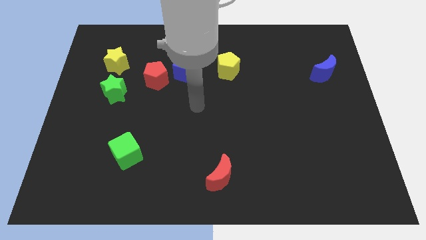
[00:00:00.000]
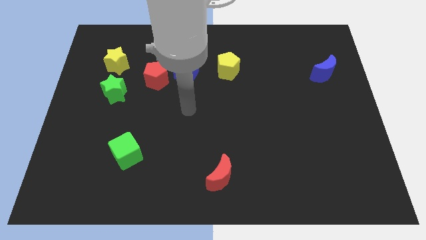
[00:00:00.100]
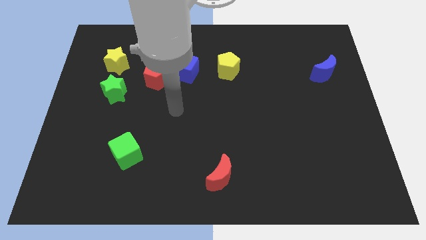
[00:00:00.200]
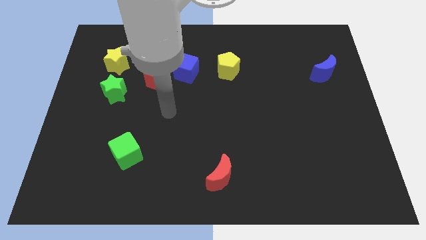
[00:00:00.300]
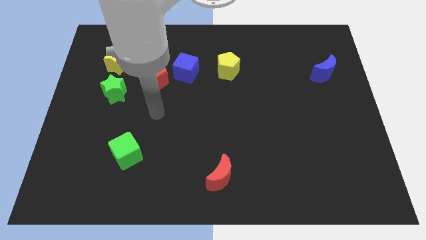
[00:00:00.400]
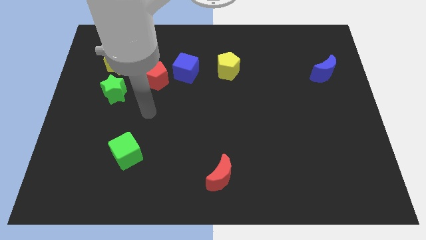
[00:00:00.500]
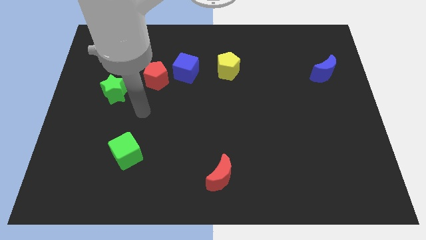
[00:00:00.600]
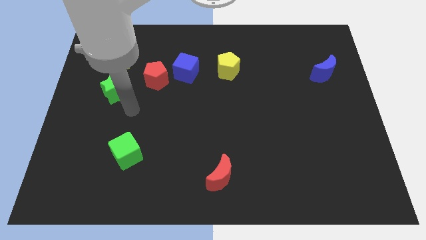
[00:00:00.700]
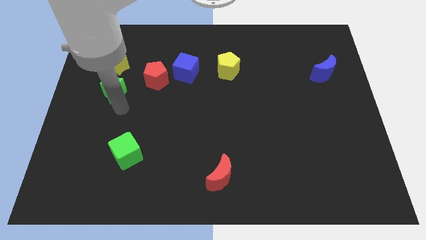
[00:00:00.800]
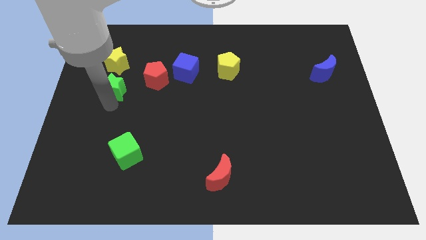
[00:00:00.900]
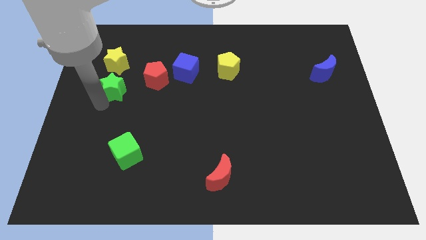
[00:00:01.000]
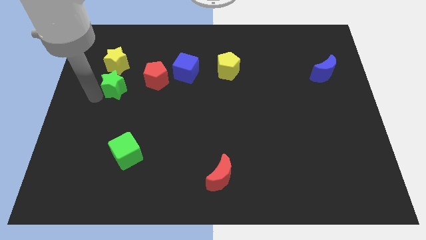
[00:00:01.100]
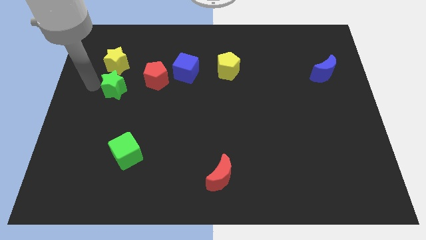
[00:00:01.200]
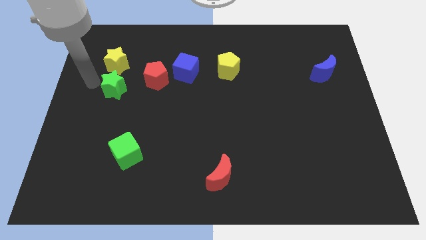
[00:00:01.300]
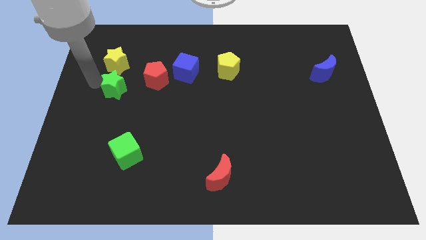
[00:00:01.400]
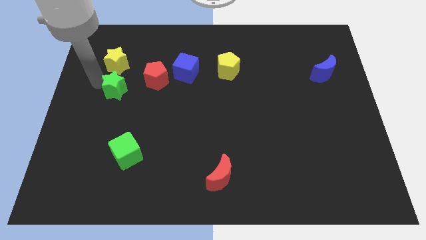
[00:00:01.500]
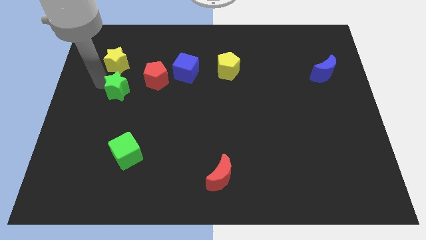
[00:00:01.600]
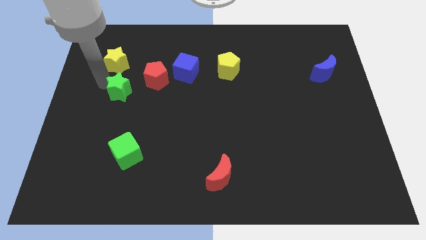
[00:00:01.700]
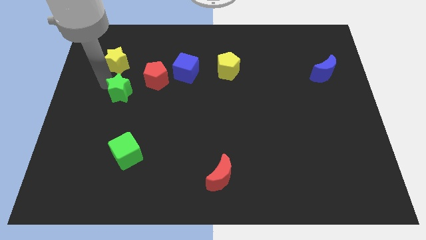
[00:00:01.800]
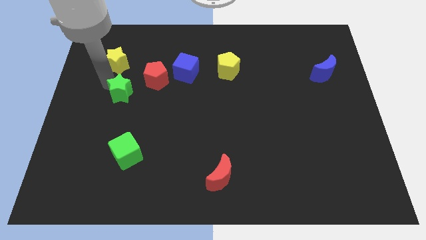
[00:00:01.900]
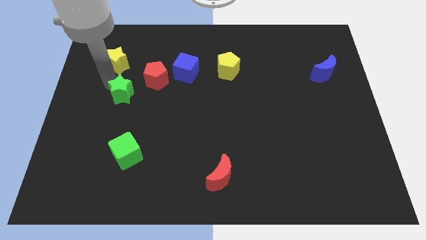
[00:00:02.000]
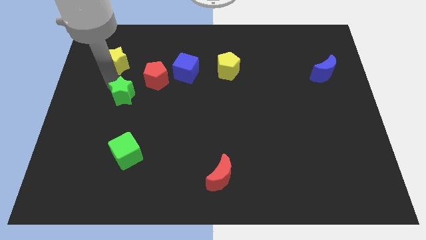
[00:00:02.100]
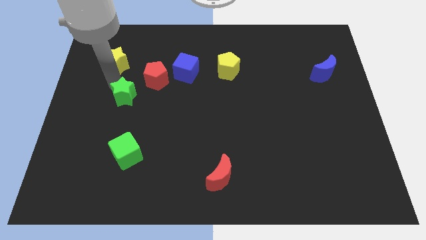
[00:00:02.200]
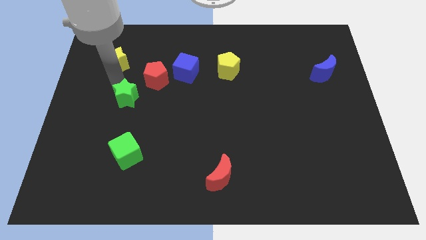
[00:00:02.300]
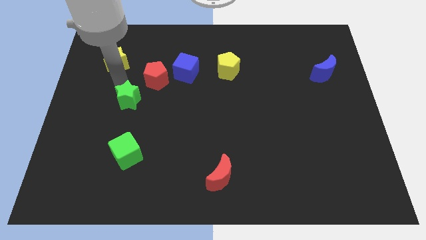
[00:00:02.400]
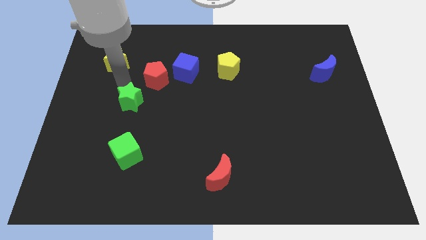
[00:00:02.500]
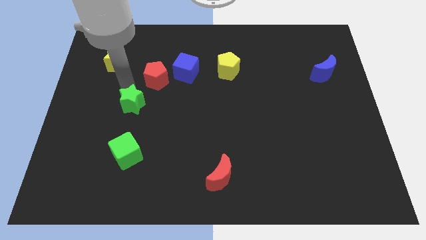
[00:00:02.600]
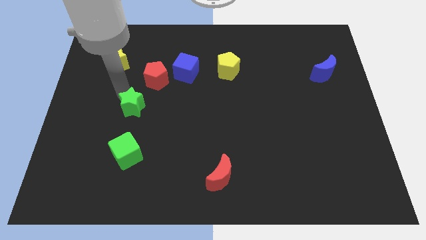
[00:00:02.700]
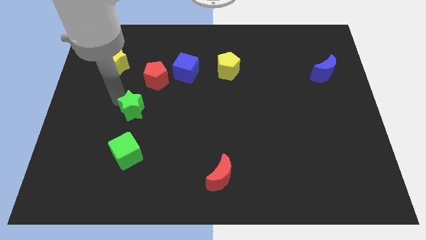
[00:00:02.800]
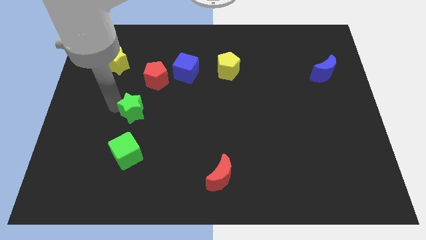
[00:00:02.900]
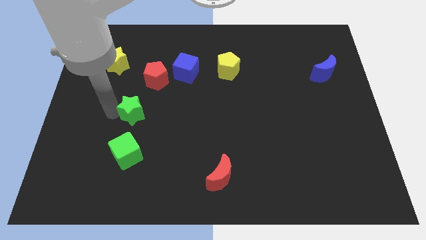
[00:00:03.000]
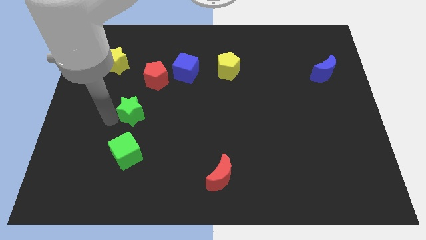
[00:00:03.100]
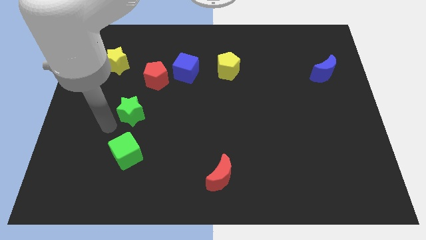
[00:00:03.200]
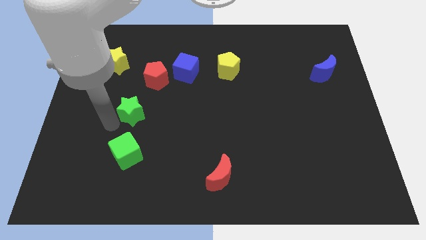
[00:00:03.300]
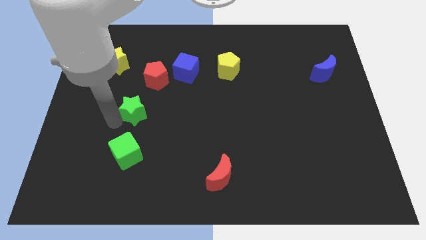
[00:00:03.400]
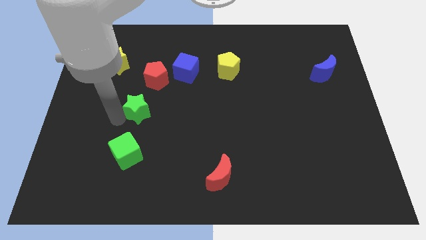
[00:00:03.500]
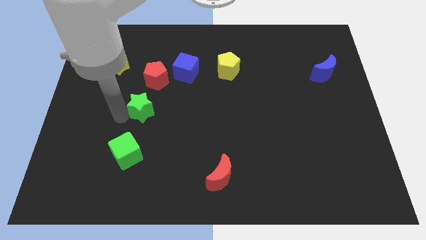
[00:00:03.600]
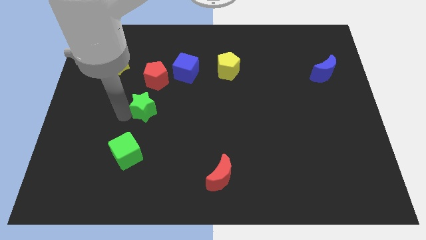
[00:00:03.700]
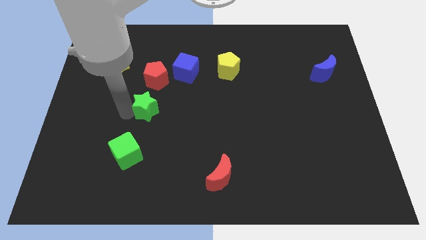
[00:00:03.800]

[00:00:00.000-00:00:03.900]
push the green star a little right

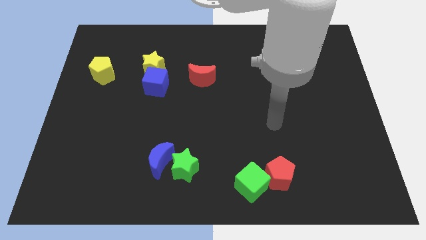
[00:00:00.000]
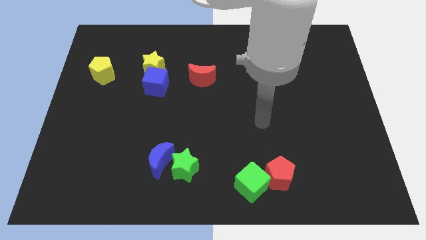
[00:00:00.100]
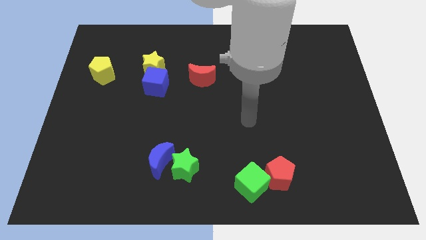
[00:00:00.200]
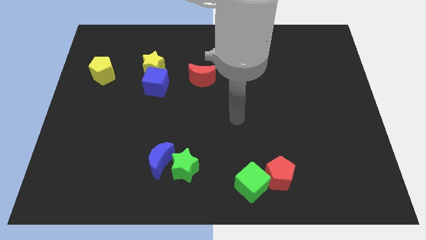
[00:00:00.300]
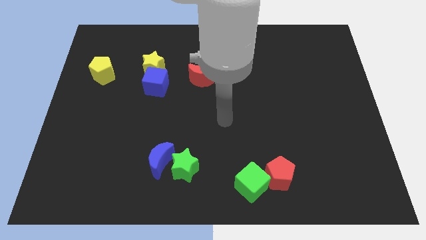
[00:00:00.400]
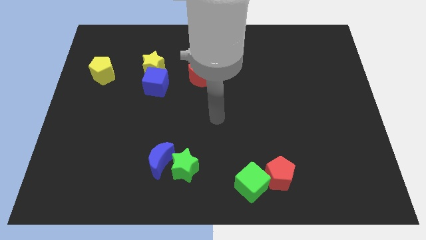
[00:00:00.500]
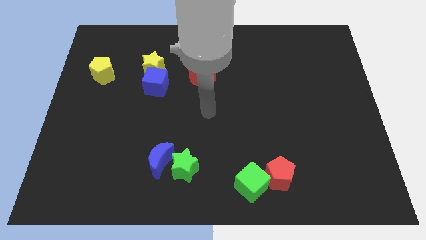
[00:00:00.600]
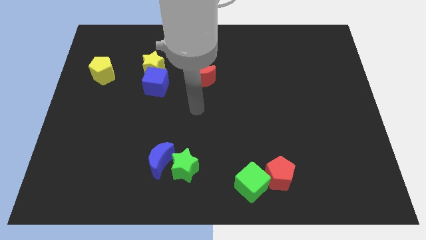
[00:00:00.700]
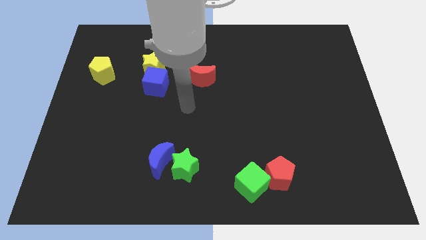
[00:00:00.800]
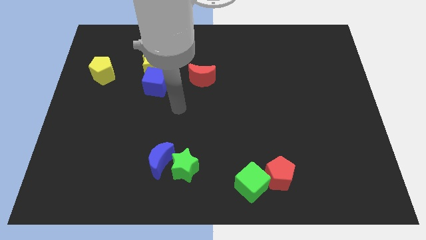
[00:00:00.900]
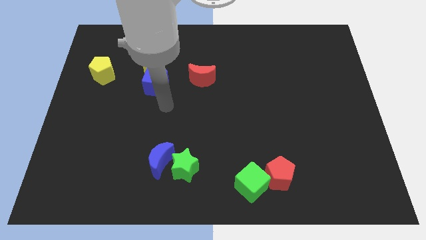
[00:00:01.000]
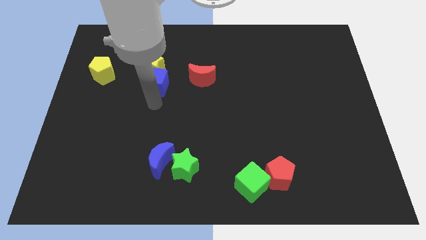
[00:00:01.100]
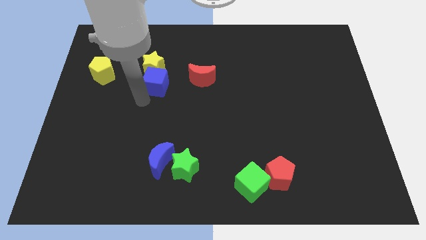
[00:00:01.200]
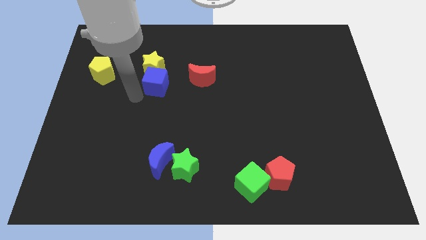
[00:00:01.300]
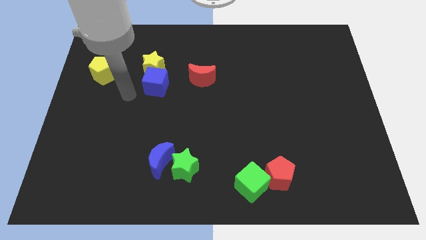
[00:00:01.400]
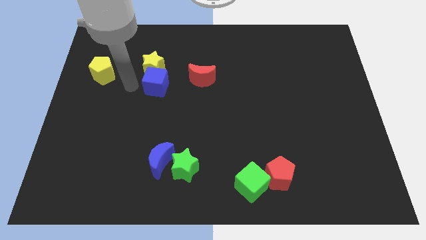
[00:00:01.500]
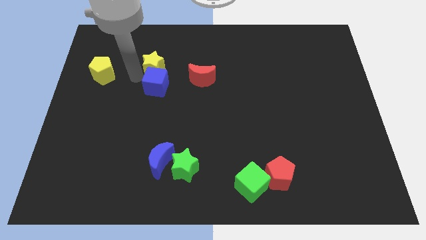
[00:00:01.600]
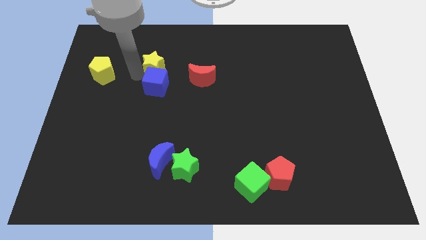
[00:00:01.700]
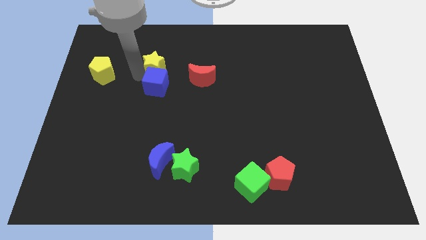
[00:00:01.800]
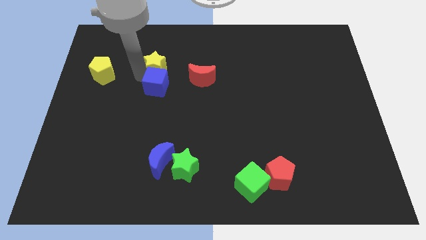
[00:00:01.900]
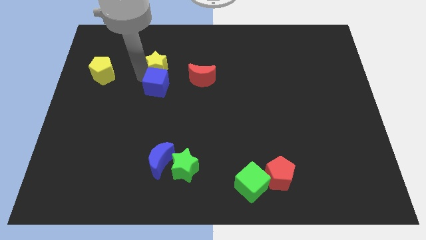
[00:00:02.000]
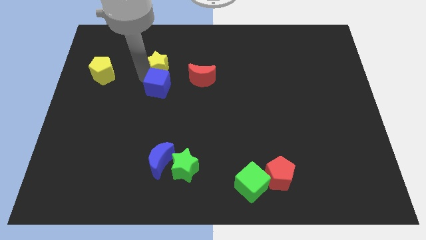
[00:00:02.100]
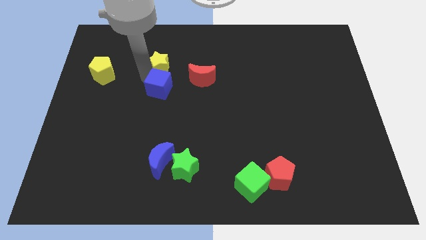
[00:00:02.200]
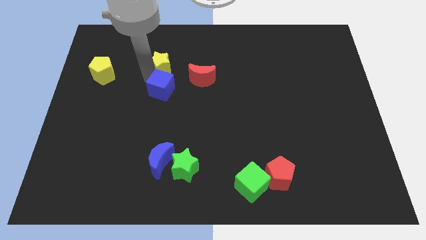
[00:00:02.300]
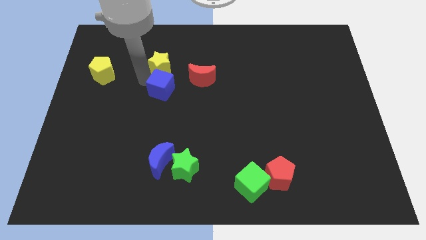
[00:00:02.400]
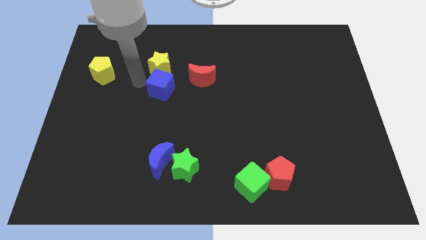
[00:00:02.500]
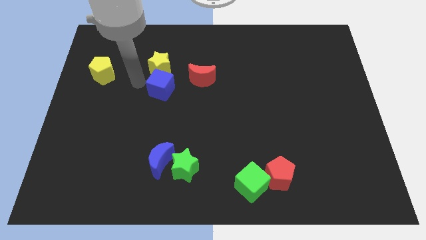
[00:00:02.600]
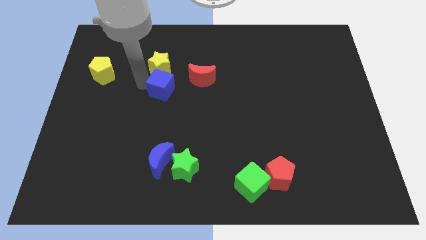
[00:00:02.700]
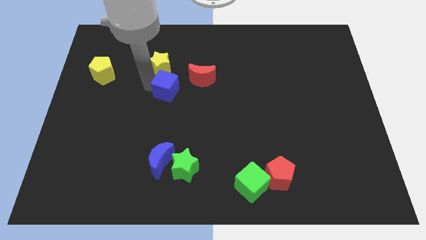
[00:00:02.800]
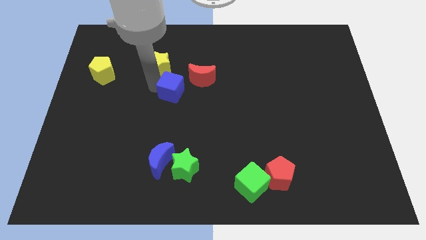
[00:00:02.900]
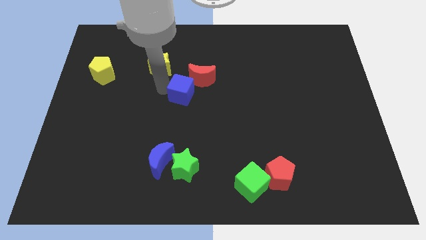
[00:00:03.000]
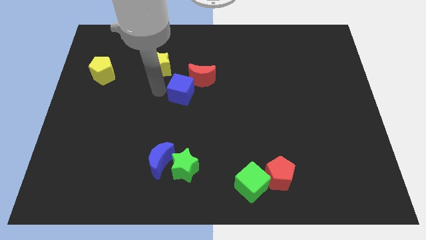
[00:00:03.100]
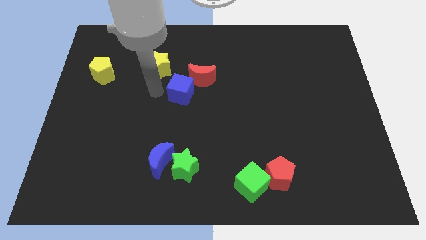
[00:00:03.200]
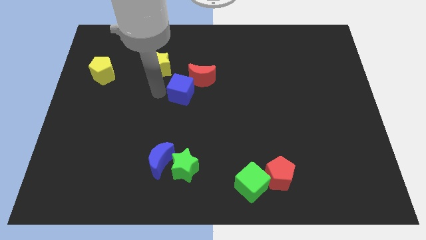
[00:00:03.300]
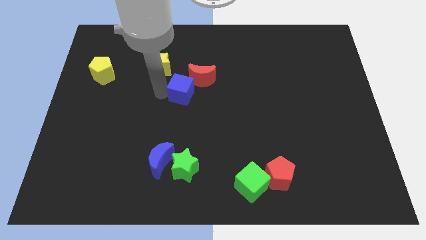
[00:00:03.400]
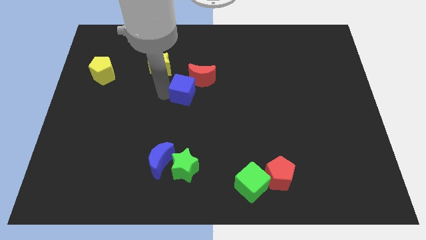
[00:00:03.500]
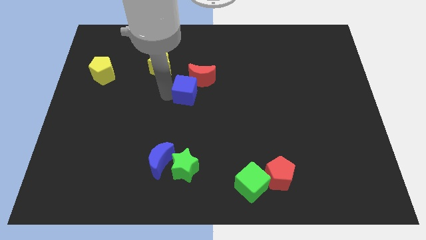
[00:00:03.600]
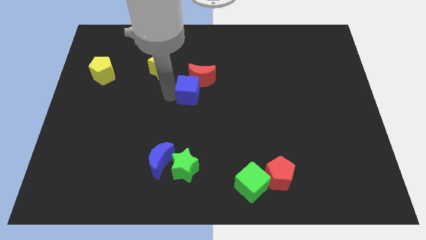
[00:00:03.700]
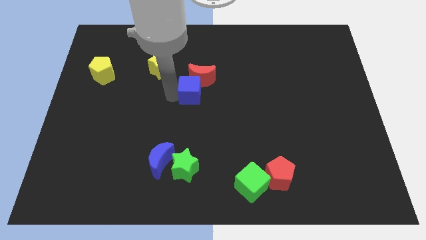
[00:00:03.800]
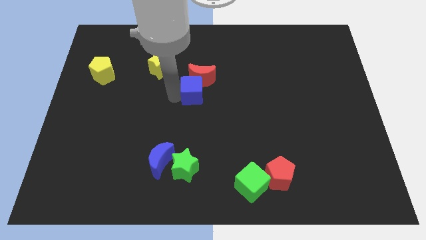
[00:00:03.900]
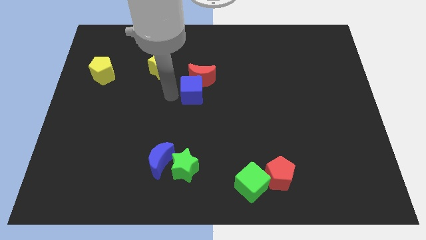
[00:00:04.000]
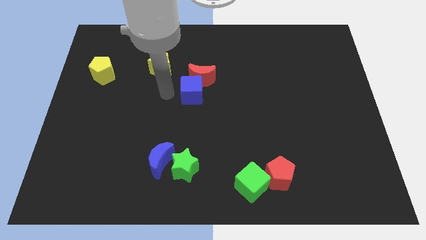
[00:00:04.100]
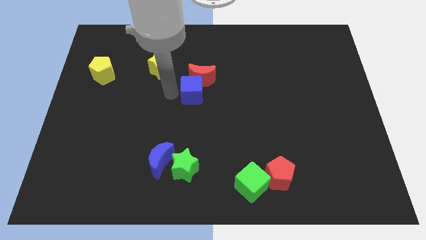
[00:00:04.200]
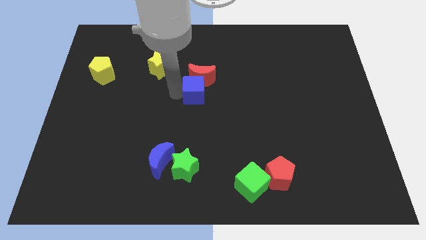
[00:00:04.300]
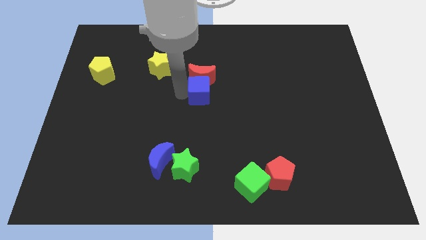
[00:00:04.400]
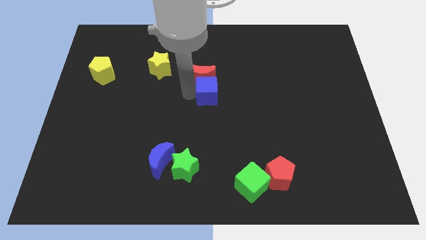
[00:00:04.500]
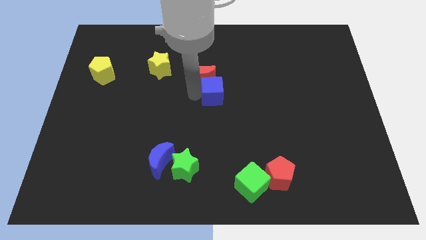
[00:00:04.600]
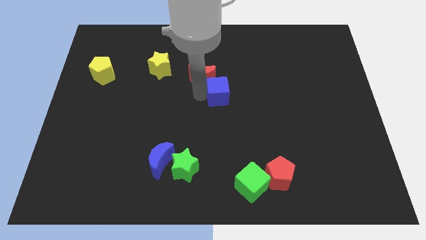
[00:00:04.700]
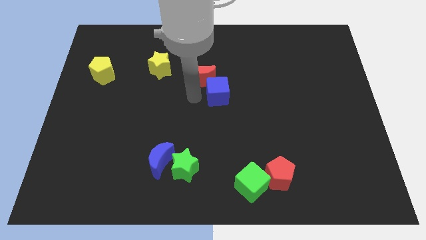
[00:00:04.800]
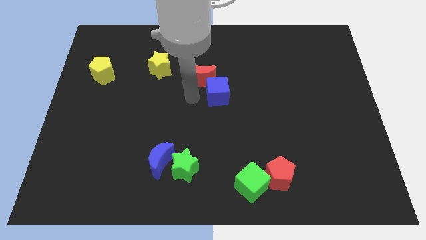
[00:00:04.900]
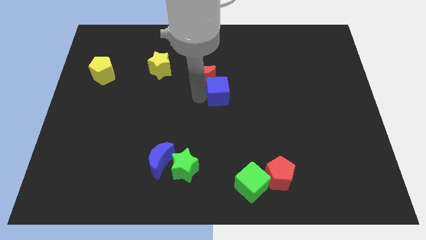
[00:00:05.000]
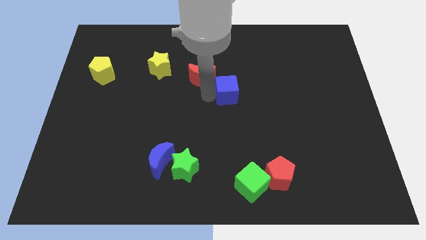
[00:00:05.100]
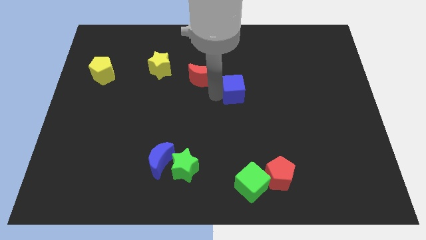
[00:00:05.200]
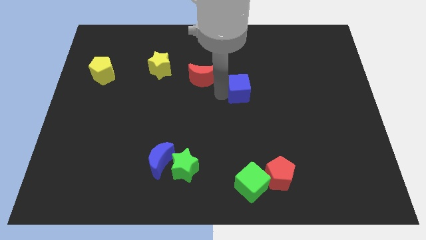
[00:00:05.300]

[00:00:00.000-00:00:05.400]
push the blue cube right
